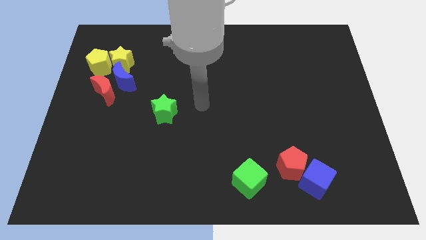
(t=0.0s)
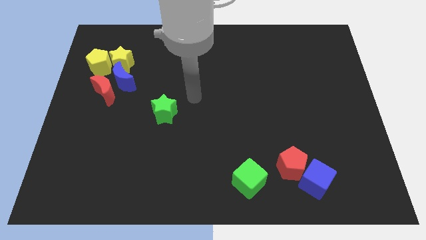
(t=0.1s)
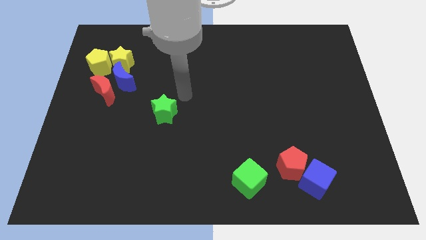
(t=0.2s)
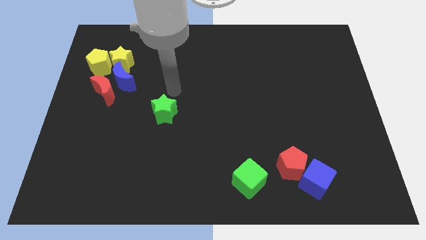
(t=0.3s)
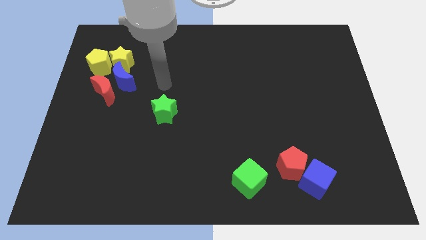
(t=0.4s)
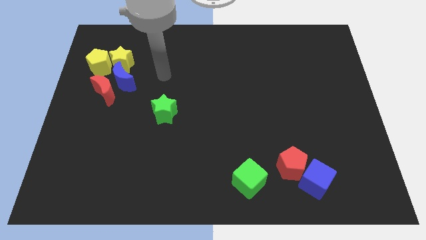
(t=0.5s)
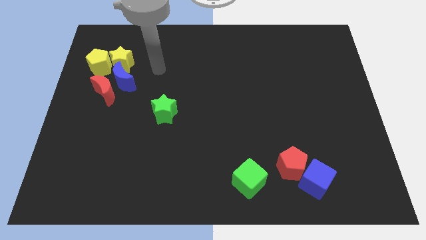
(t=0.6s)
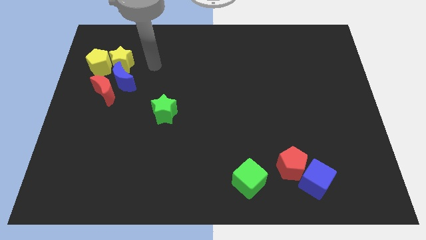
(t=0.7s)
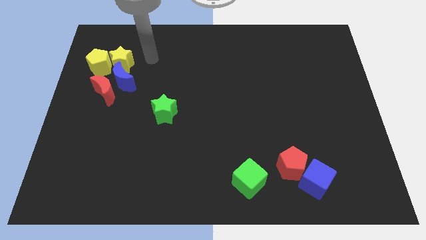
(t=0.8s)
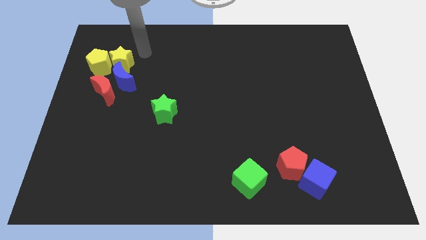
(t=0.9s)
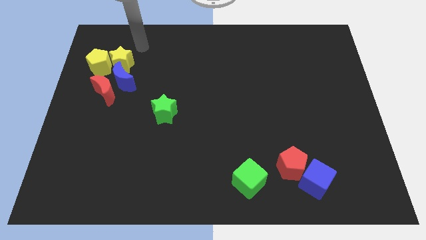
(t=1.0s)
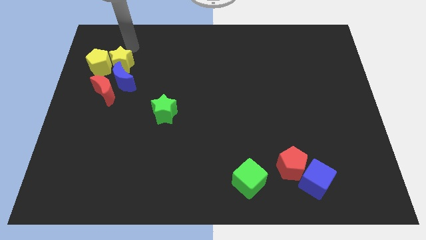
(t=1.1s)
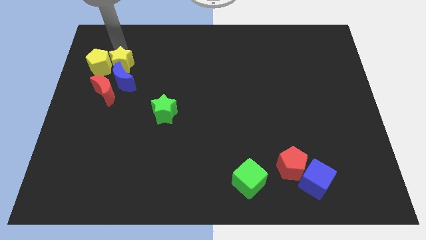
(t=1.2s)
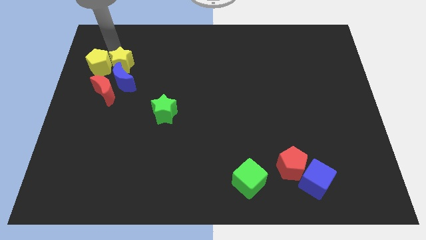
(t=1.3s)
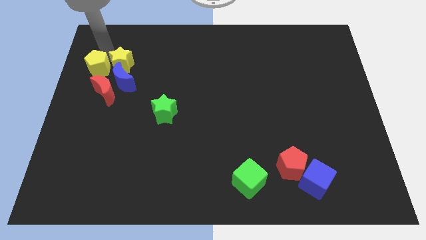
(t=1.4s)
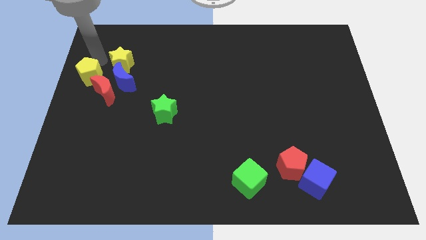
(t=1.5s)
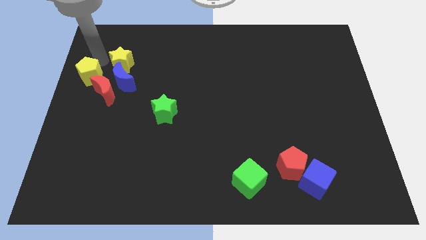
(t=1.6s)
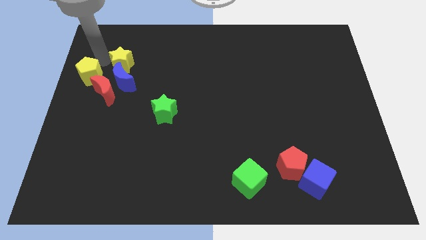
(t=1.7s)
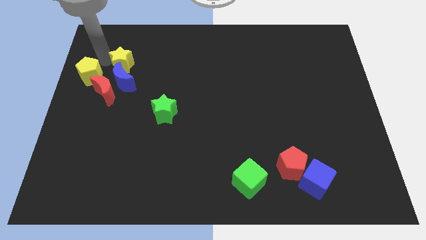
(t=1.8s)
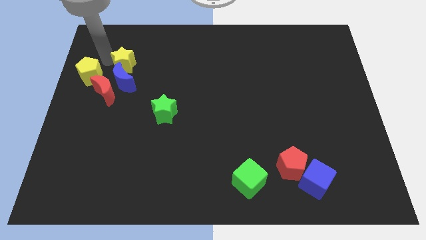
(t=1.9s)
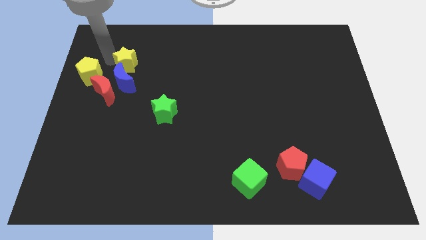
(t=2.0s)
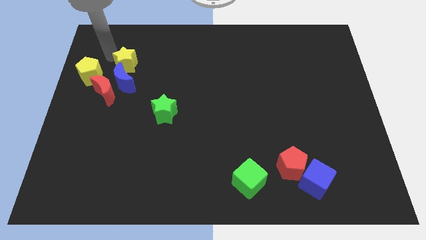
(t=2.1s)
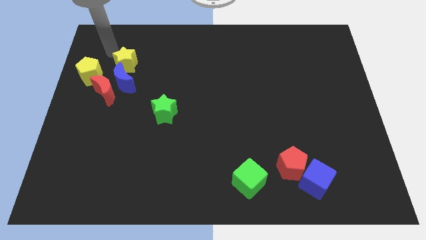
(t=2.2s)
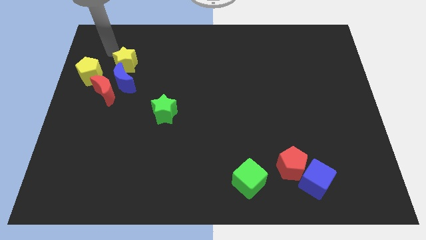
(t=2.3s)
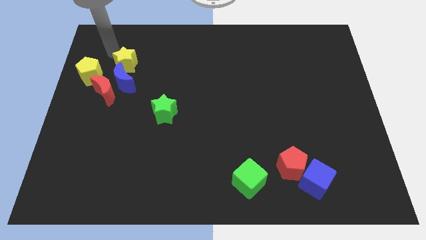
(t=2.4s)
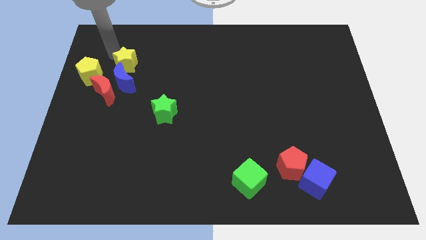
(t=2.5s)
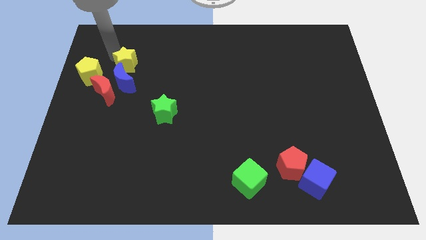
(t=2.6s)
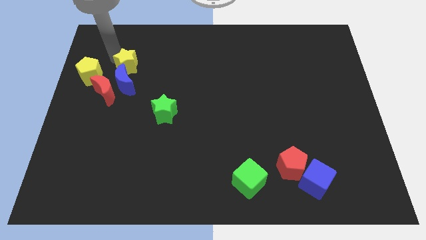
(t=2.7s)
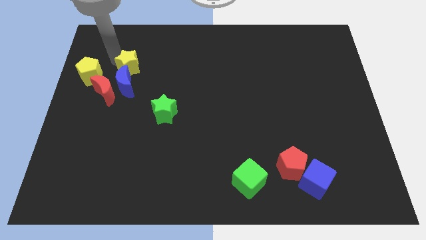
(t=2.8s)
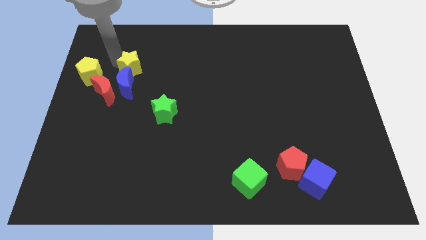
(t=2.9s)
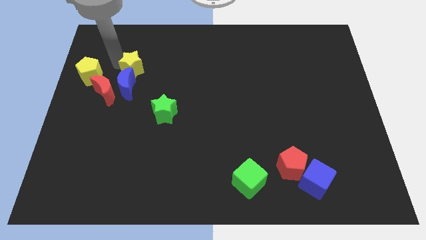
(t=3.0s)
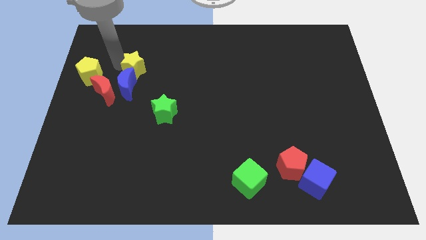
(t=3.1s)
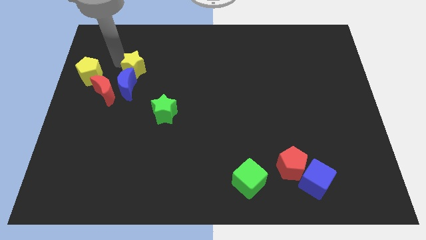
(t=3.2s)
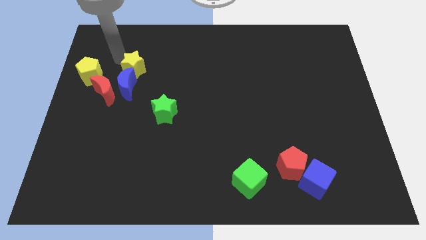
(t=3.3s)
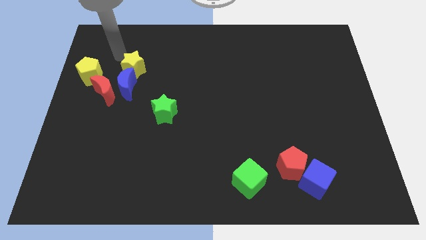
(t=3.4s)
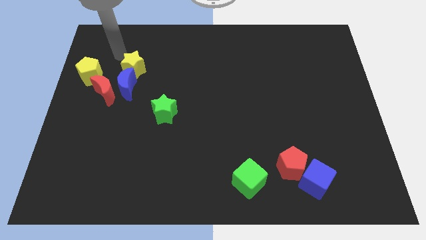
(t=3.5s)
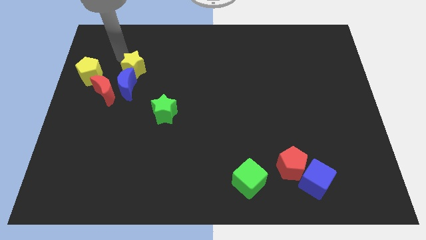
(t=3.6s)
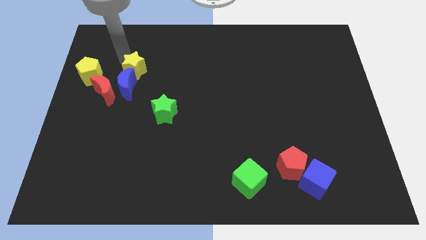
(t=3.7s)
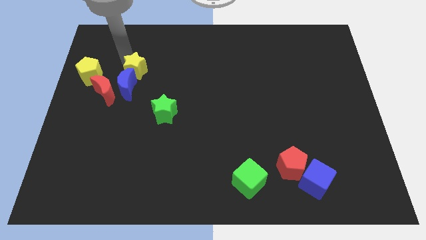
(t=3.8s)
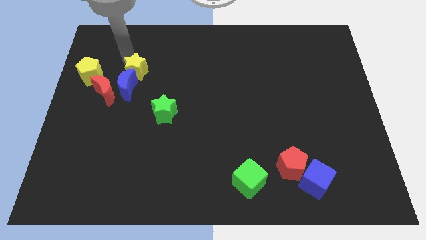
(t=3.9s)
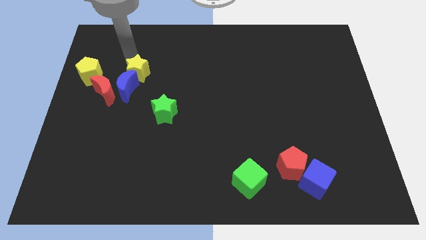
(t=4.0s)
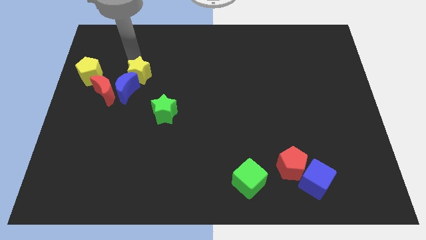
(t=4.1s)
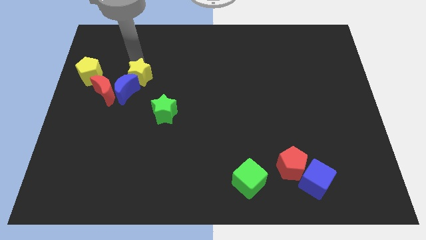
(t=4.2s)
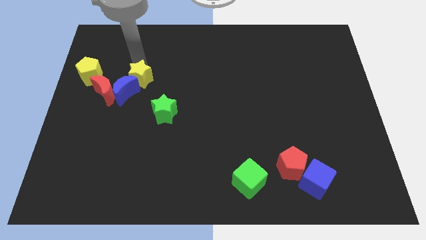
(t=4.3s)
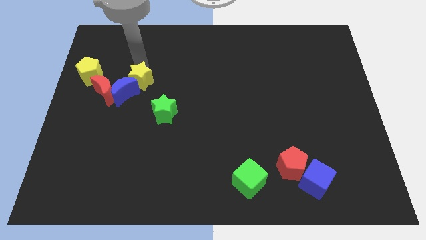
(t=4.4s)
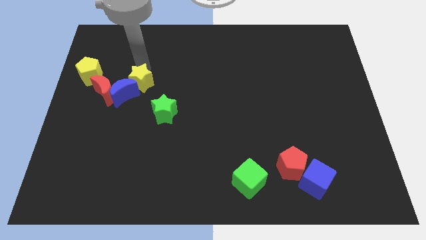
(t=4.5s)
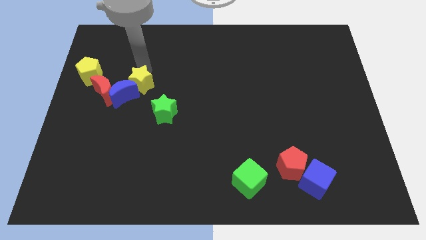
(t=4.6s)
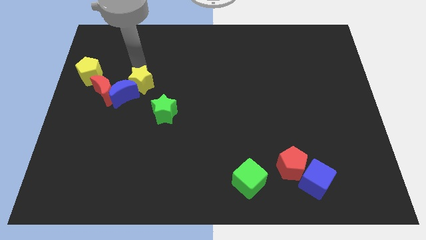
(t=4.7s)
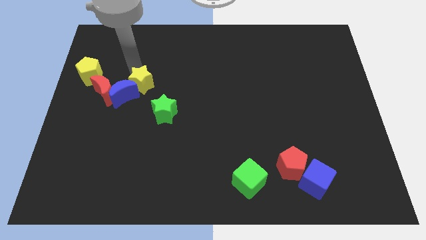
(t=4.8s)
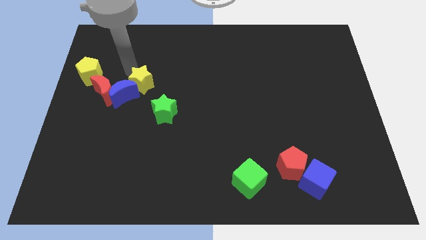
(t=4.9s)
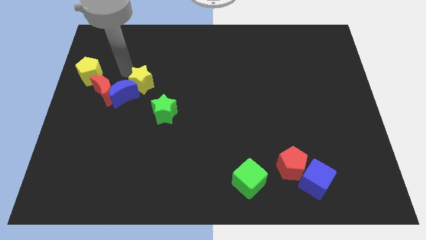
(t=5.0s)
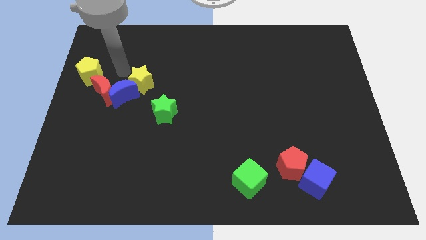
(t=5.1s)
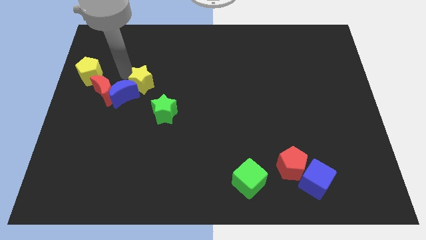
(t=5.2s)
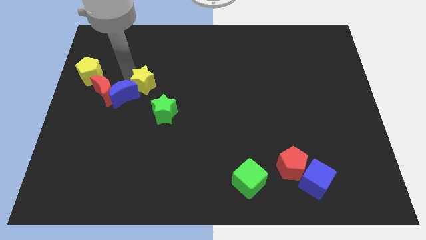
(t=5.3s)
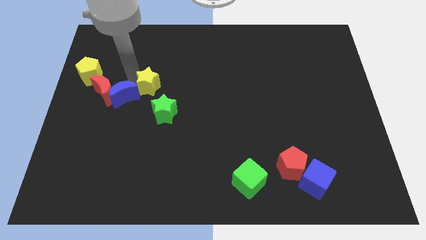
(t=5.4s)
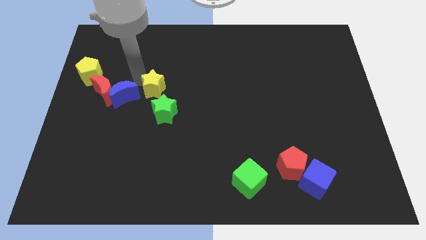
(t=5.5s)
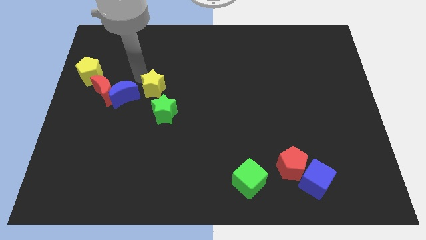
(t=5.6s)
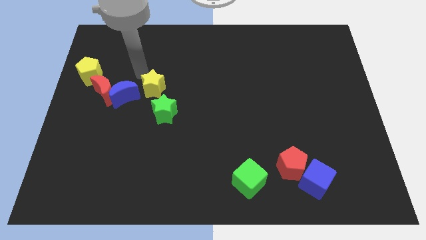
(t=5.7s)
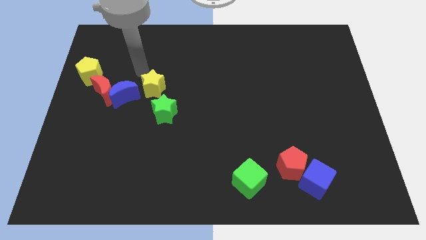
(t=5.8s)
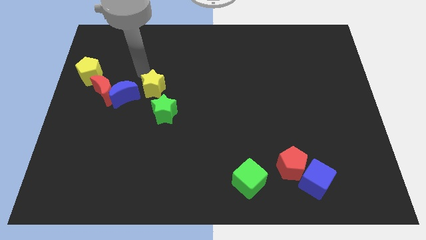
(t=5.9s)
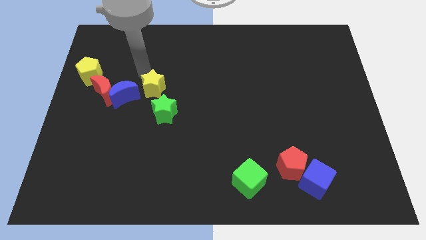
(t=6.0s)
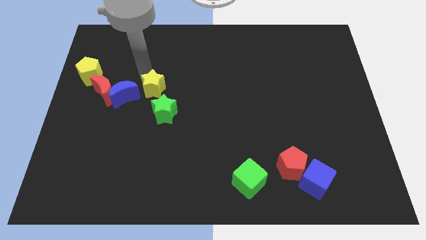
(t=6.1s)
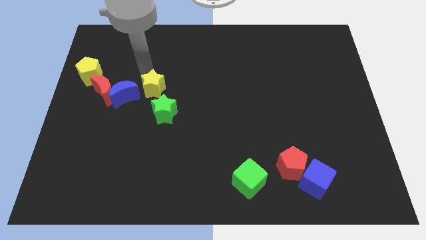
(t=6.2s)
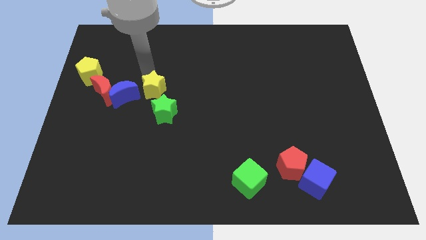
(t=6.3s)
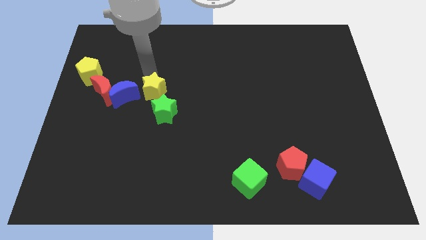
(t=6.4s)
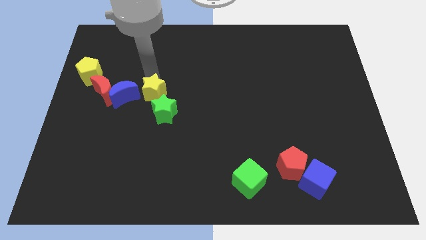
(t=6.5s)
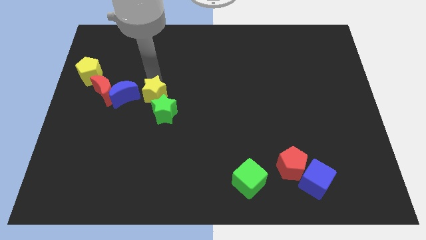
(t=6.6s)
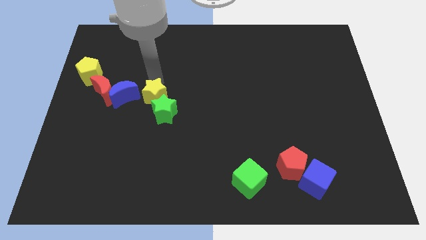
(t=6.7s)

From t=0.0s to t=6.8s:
put the yellow star to the green star
